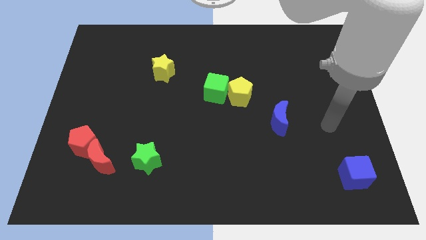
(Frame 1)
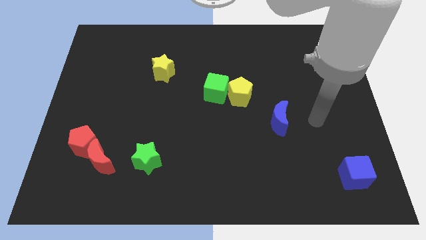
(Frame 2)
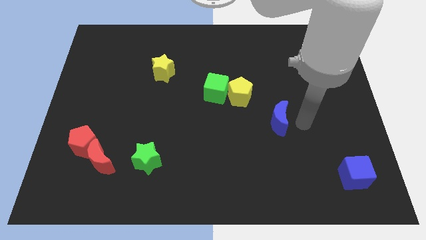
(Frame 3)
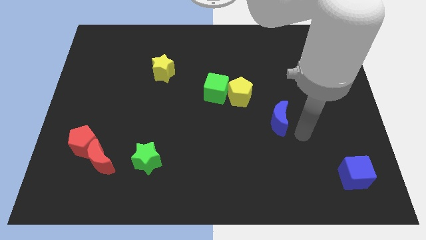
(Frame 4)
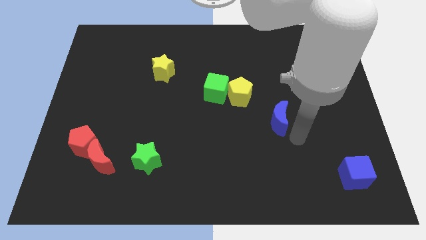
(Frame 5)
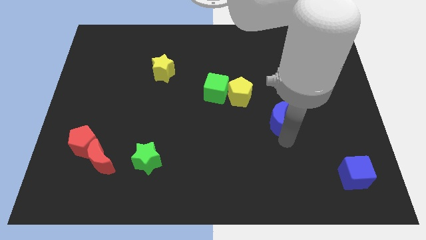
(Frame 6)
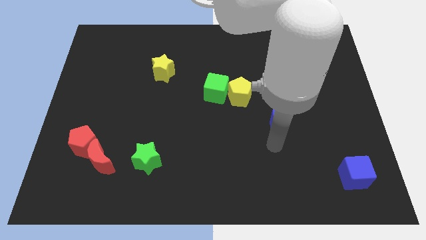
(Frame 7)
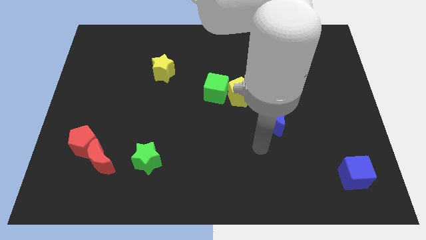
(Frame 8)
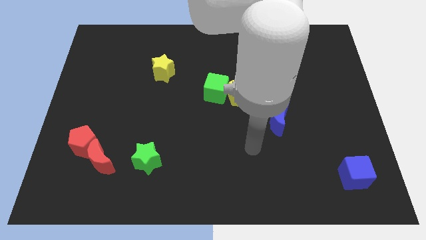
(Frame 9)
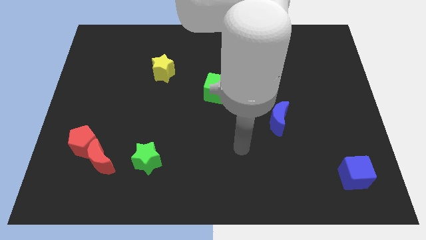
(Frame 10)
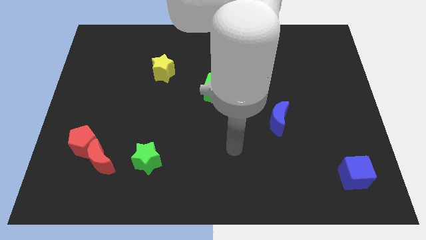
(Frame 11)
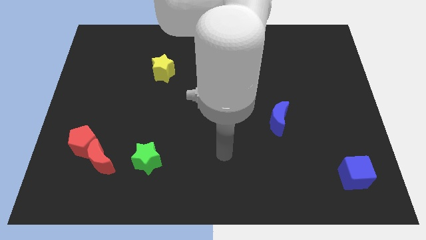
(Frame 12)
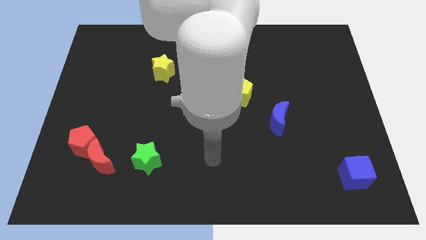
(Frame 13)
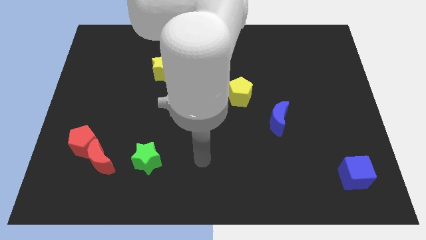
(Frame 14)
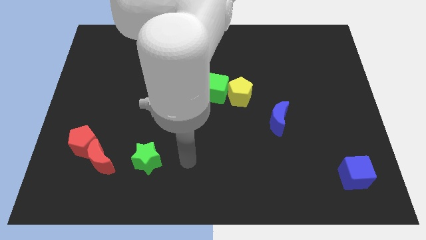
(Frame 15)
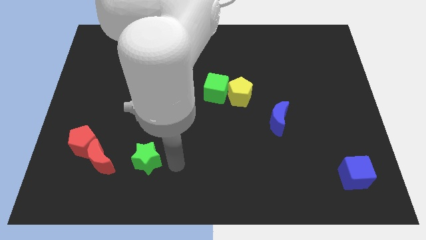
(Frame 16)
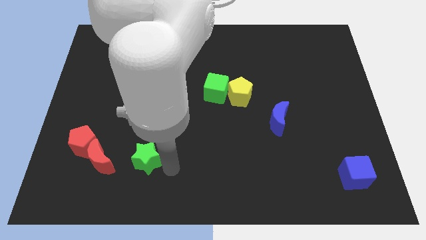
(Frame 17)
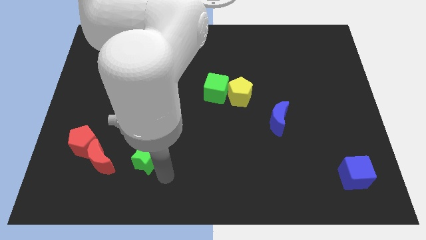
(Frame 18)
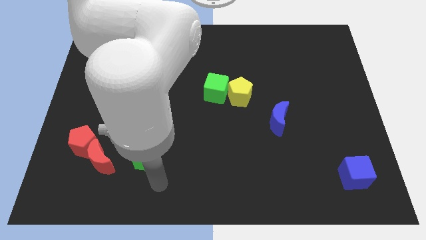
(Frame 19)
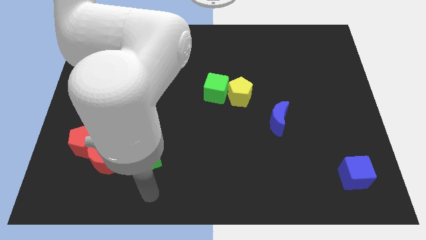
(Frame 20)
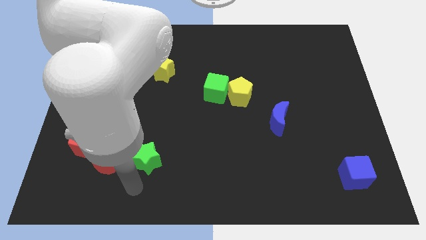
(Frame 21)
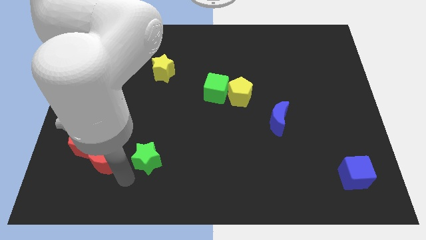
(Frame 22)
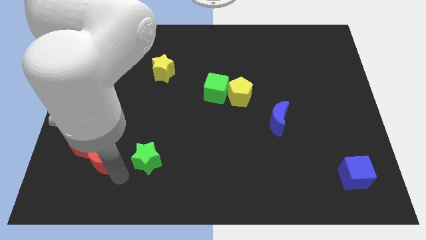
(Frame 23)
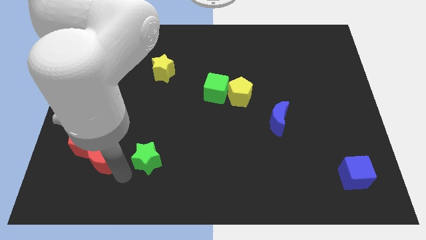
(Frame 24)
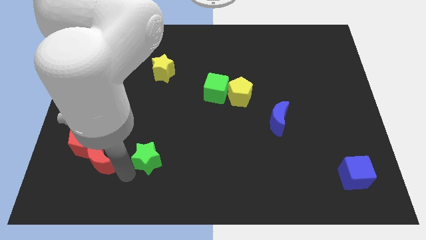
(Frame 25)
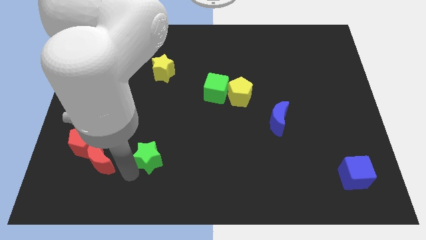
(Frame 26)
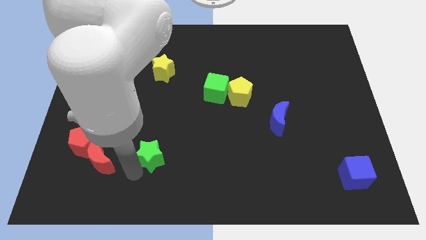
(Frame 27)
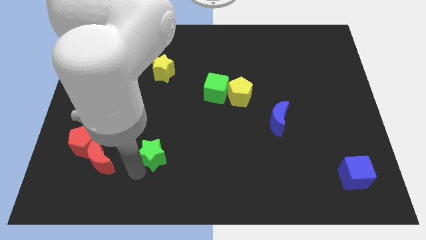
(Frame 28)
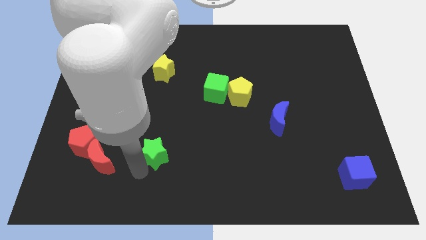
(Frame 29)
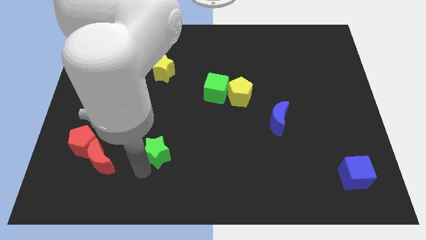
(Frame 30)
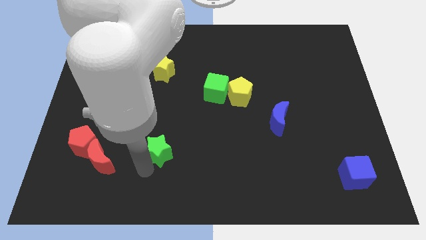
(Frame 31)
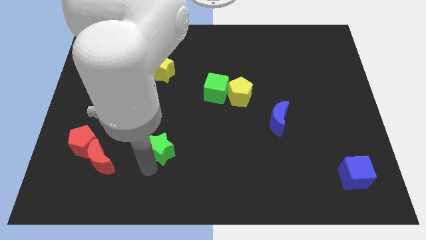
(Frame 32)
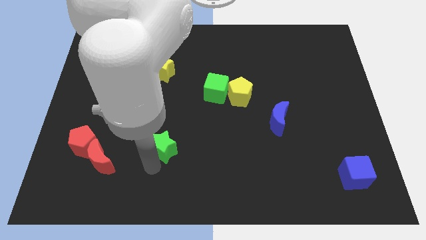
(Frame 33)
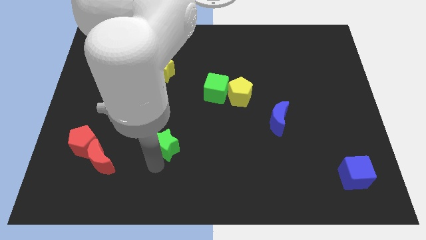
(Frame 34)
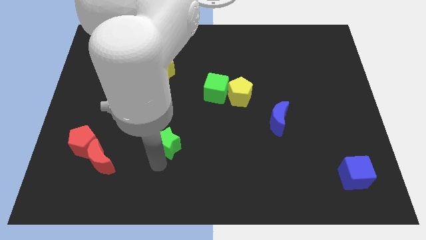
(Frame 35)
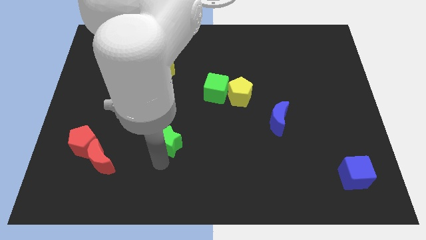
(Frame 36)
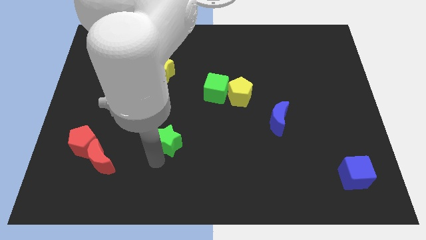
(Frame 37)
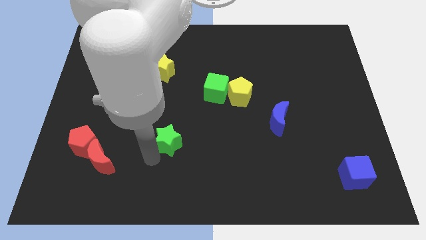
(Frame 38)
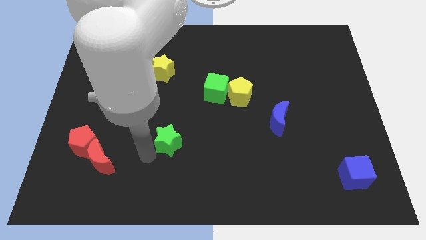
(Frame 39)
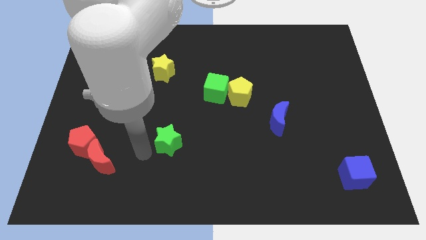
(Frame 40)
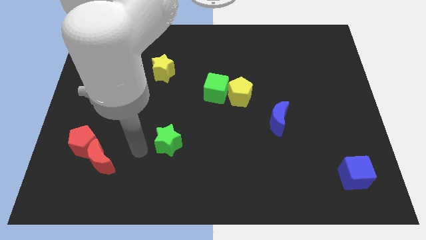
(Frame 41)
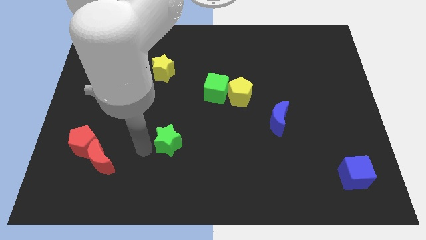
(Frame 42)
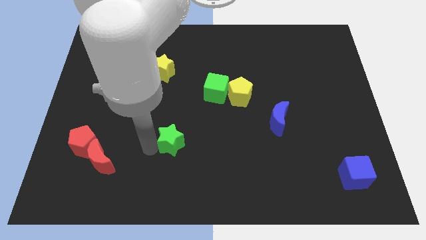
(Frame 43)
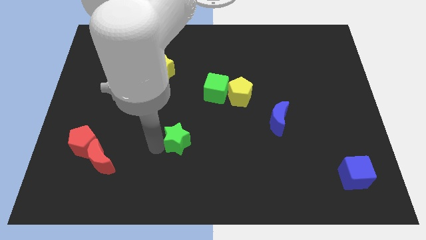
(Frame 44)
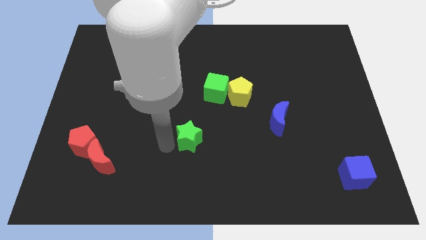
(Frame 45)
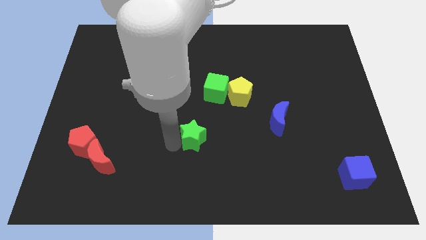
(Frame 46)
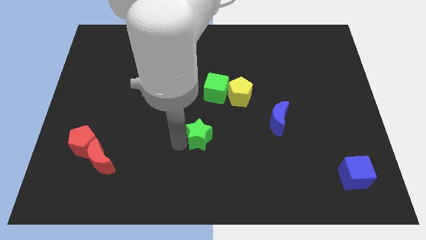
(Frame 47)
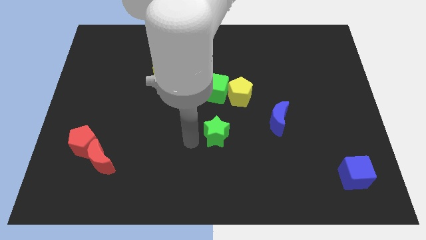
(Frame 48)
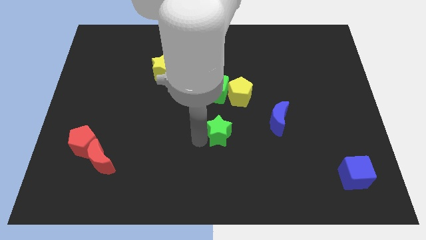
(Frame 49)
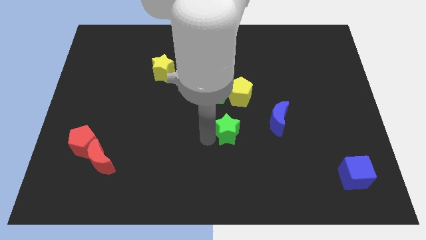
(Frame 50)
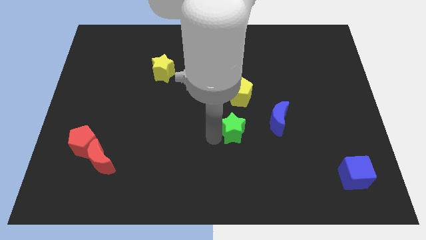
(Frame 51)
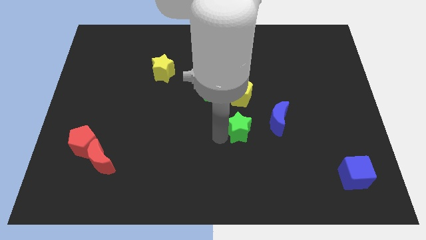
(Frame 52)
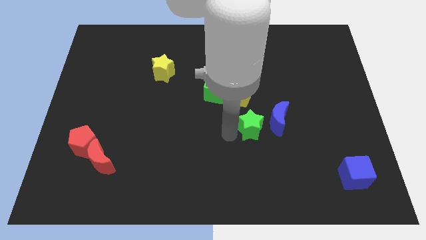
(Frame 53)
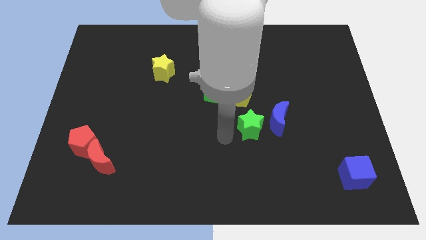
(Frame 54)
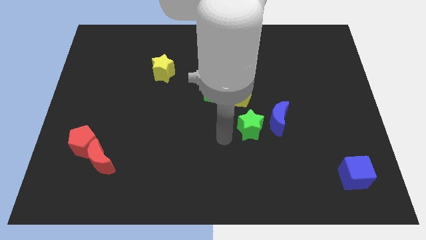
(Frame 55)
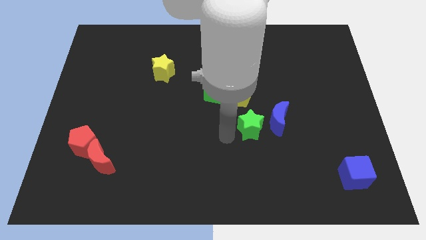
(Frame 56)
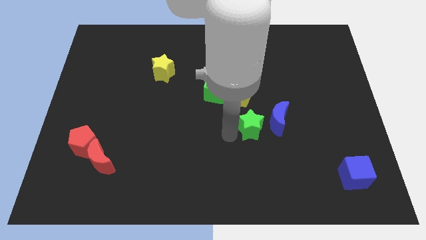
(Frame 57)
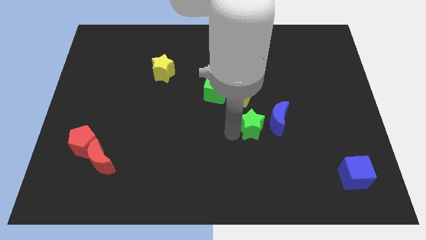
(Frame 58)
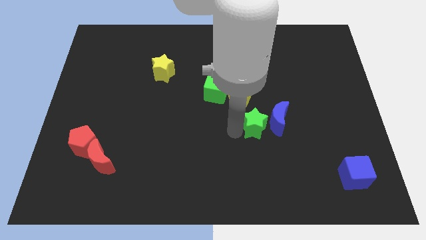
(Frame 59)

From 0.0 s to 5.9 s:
move the green star to the blue moon

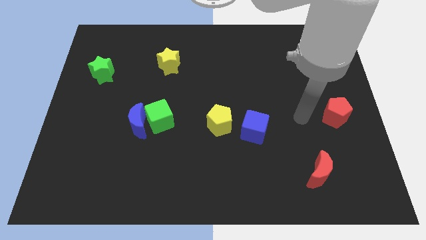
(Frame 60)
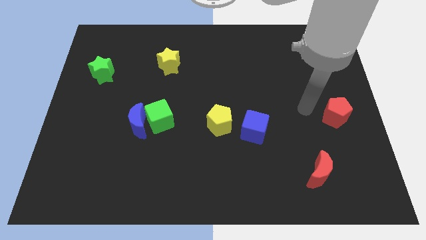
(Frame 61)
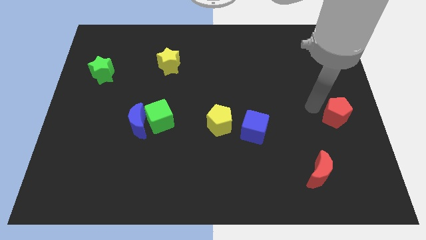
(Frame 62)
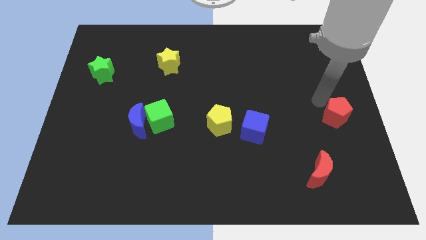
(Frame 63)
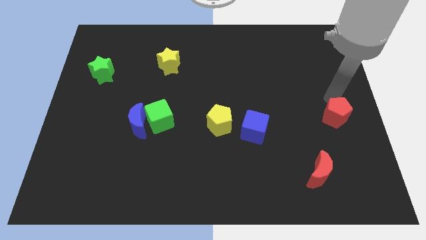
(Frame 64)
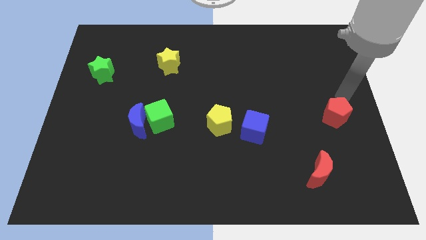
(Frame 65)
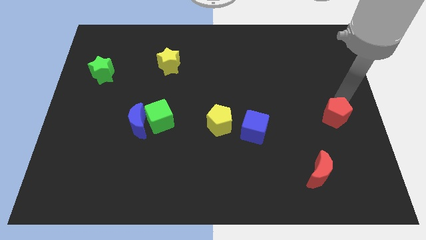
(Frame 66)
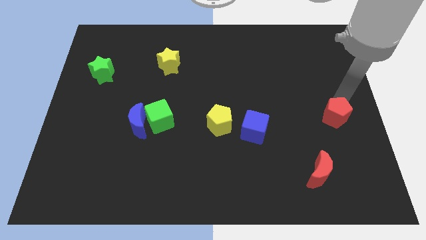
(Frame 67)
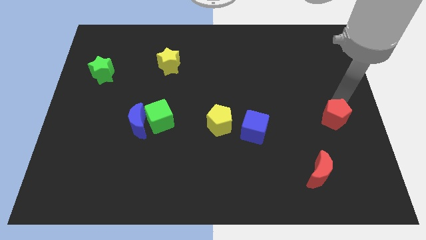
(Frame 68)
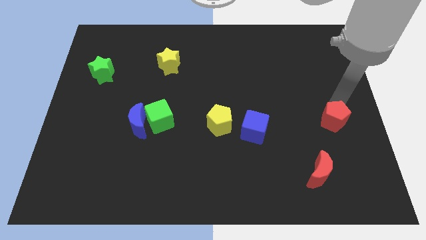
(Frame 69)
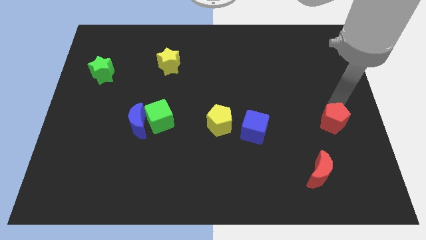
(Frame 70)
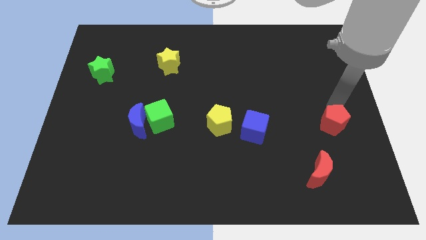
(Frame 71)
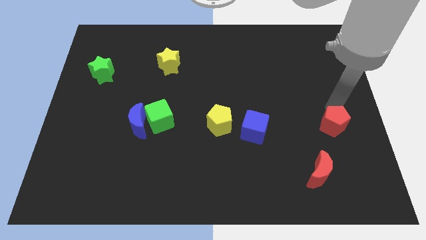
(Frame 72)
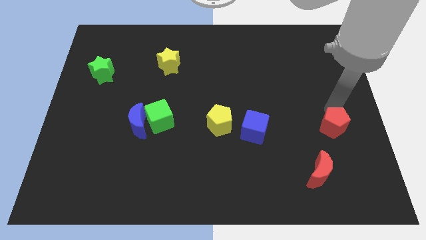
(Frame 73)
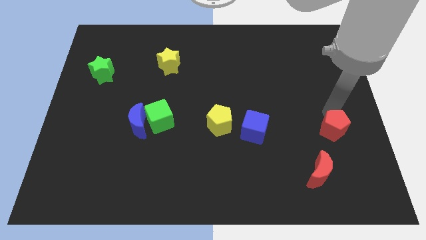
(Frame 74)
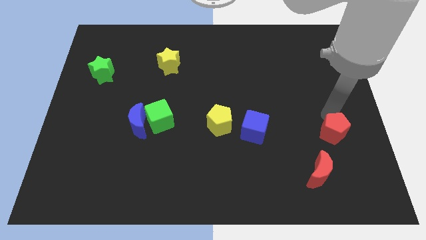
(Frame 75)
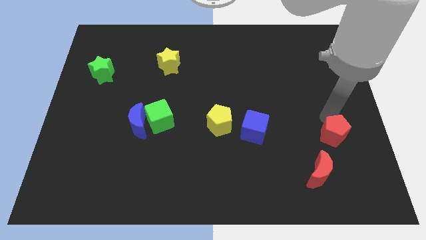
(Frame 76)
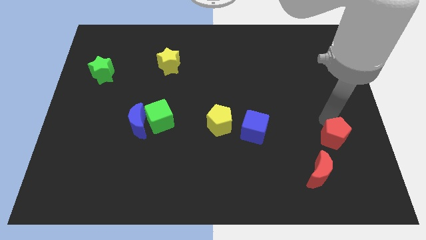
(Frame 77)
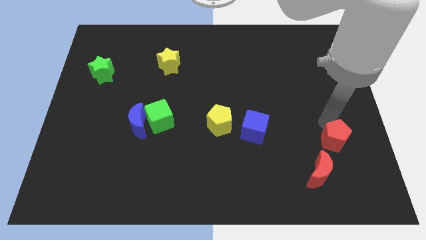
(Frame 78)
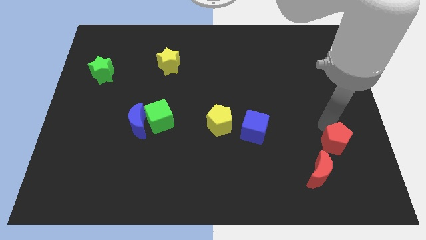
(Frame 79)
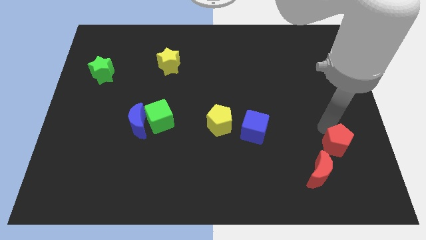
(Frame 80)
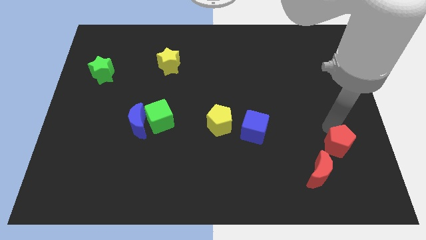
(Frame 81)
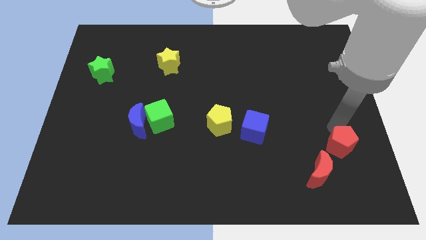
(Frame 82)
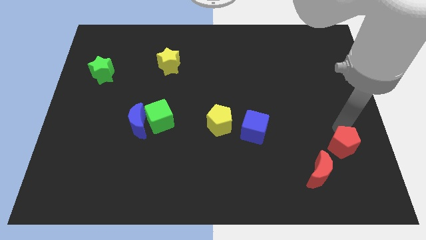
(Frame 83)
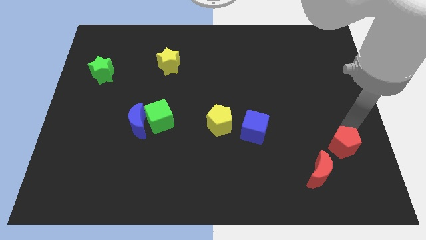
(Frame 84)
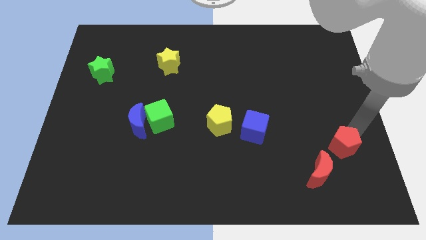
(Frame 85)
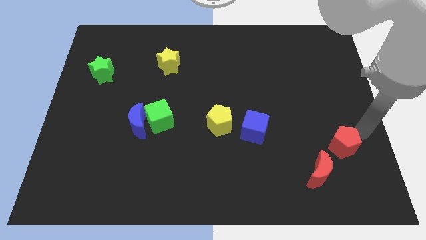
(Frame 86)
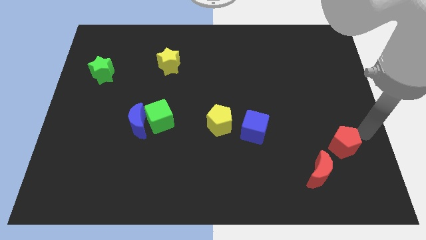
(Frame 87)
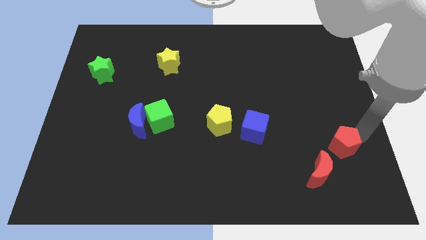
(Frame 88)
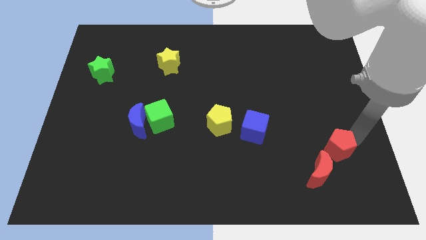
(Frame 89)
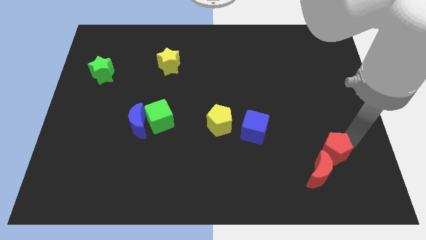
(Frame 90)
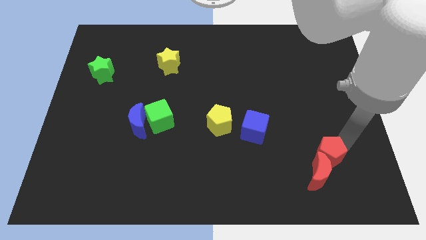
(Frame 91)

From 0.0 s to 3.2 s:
slide the red pentagon towards the red moon
